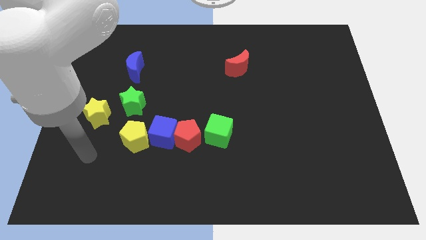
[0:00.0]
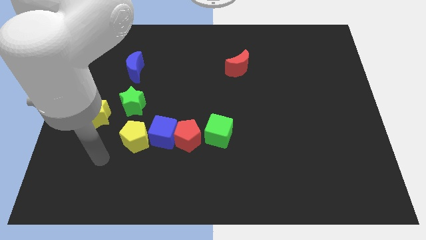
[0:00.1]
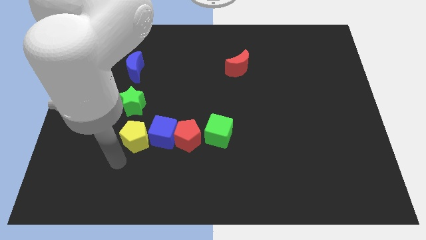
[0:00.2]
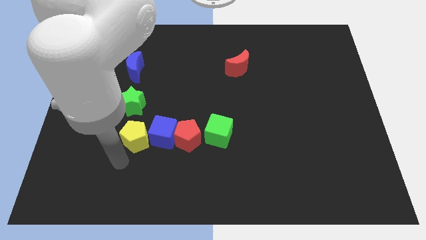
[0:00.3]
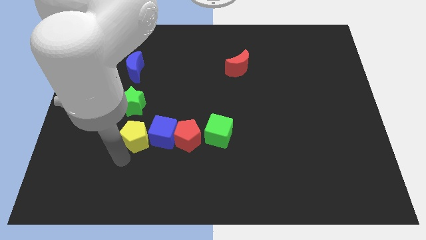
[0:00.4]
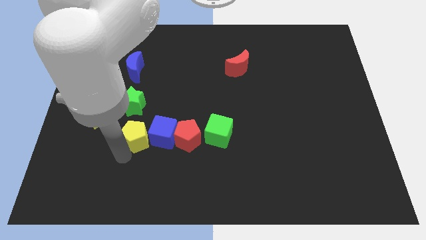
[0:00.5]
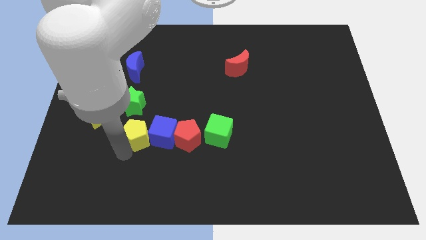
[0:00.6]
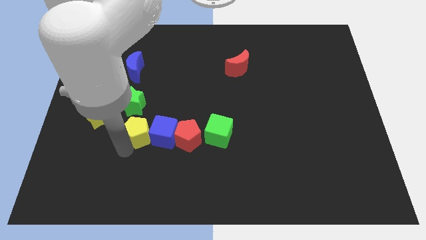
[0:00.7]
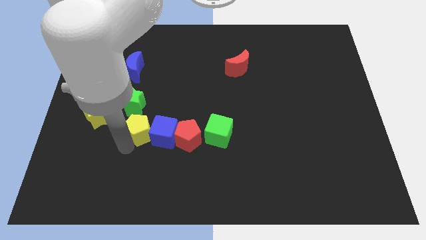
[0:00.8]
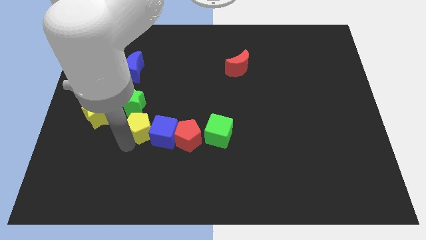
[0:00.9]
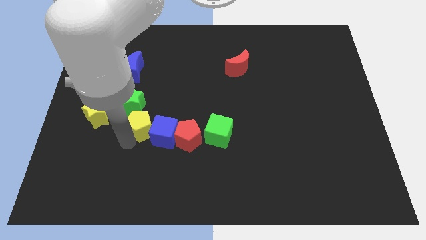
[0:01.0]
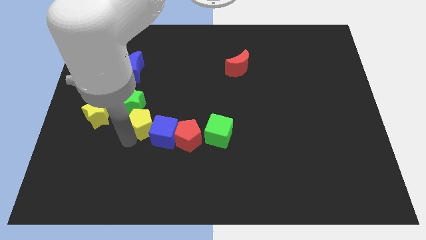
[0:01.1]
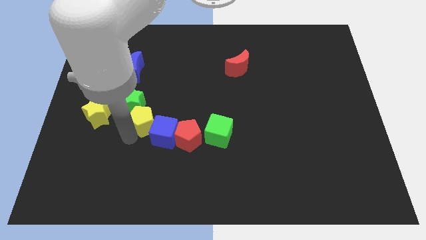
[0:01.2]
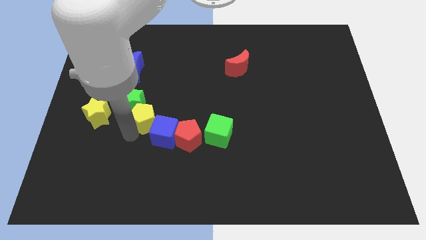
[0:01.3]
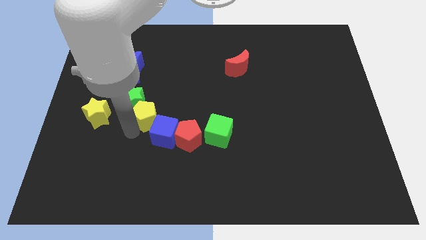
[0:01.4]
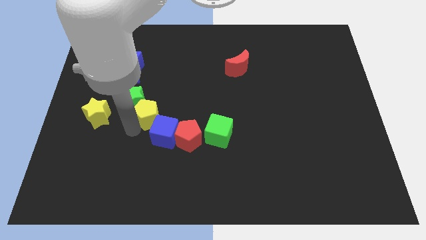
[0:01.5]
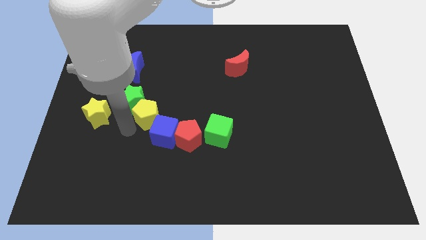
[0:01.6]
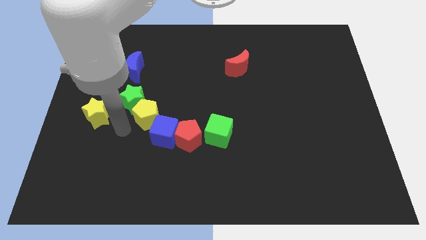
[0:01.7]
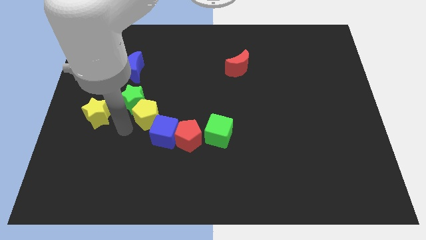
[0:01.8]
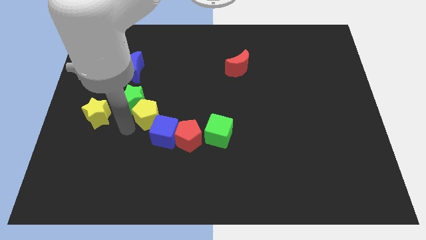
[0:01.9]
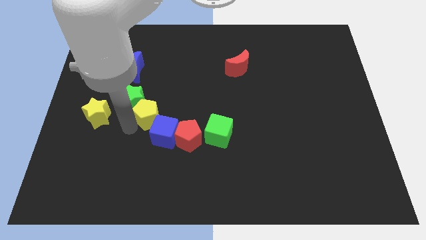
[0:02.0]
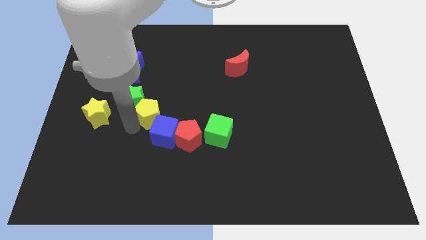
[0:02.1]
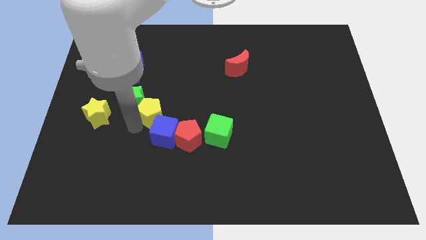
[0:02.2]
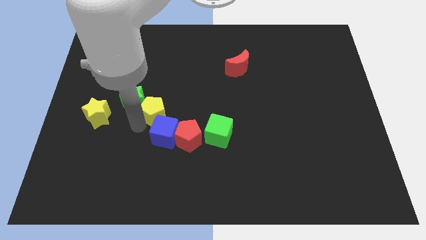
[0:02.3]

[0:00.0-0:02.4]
slide the yellow pentagon up and then right a little

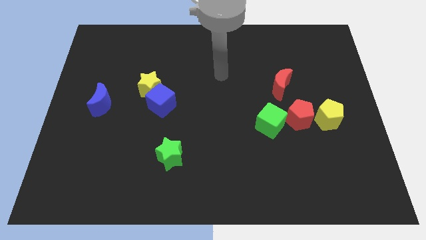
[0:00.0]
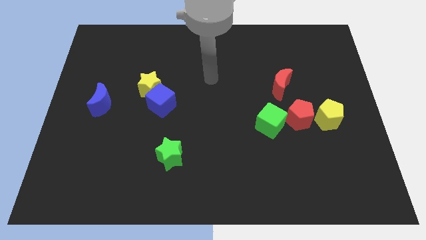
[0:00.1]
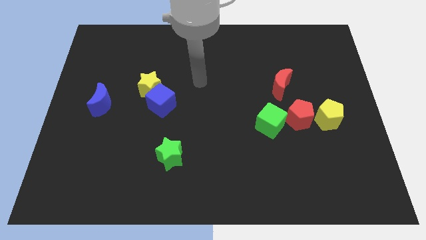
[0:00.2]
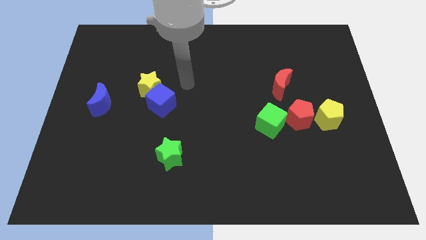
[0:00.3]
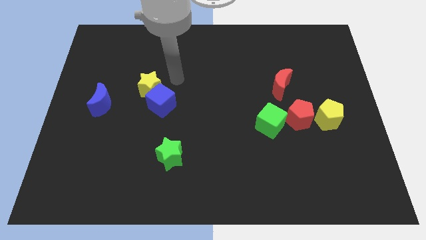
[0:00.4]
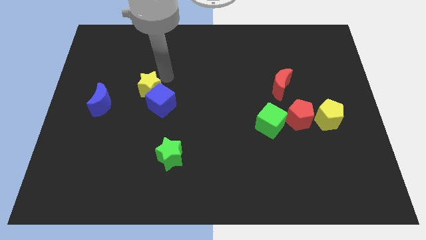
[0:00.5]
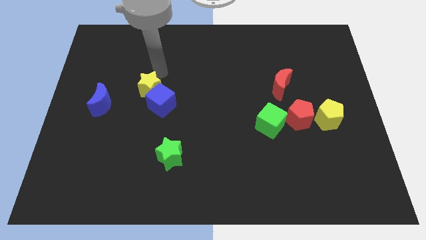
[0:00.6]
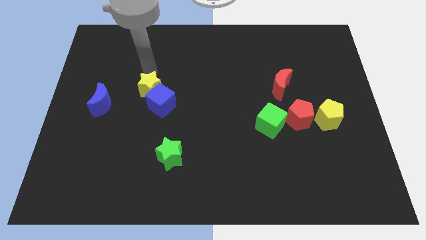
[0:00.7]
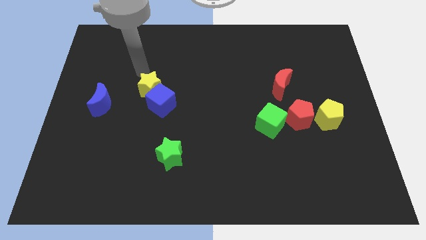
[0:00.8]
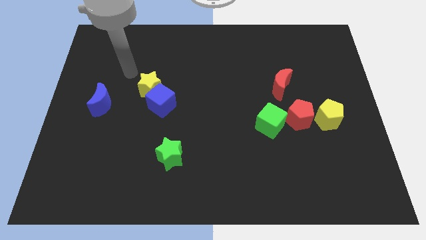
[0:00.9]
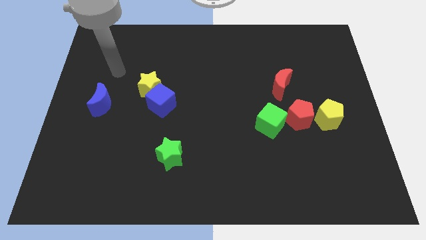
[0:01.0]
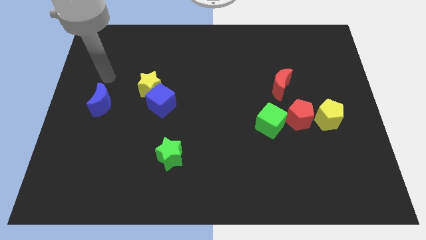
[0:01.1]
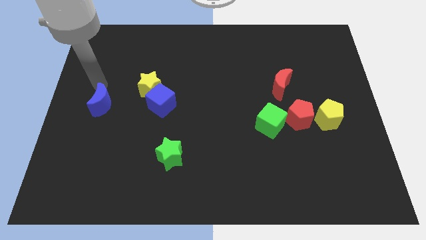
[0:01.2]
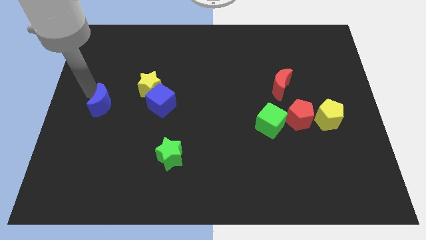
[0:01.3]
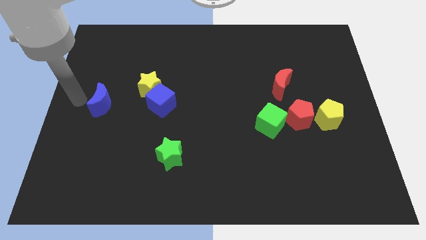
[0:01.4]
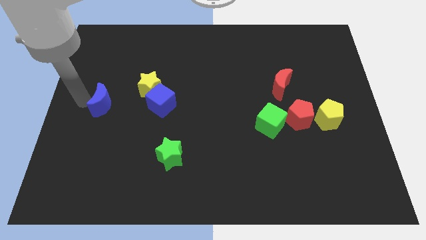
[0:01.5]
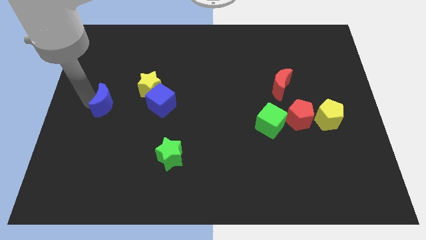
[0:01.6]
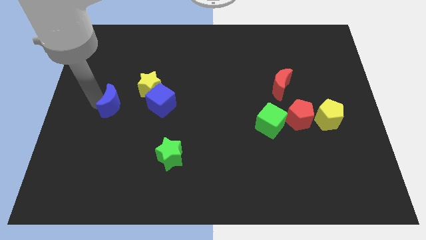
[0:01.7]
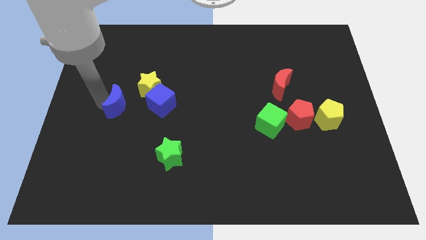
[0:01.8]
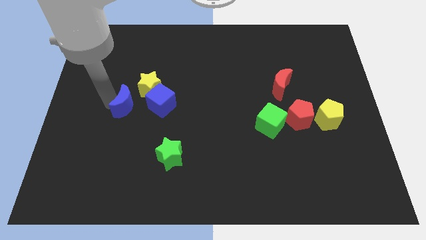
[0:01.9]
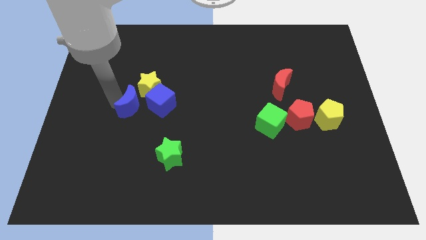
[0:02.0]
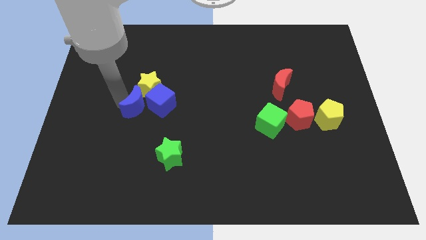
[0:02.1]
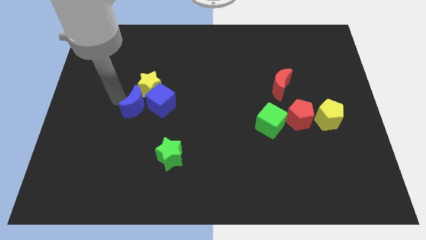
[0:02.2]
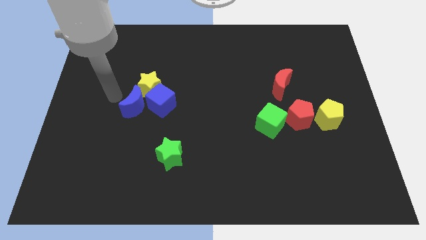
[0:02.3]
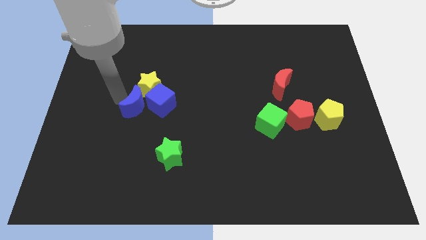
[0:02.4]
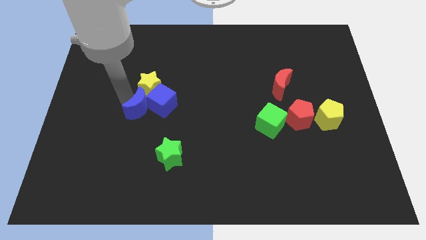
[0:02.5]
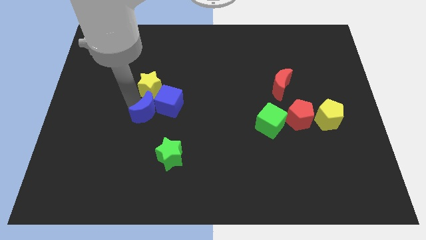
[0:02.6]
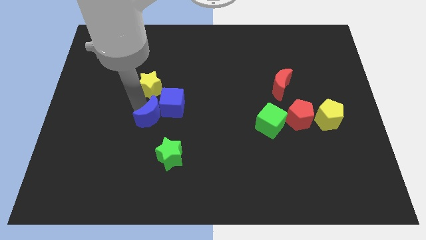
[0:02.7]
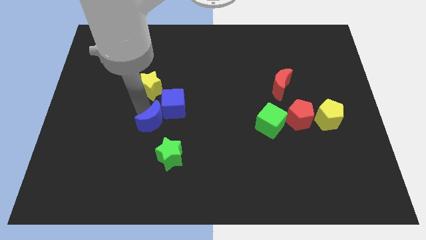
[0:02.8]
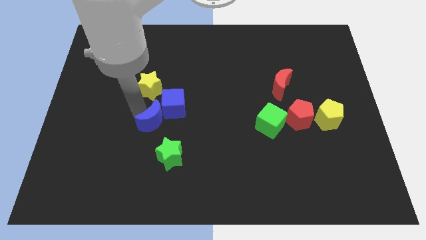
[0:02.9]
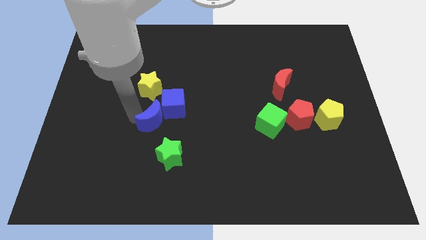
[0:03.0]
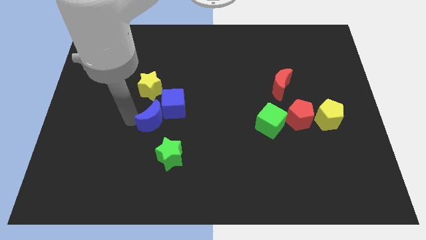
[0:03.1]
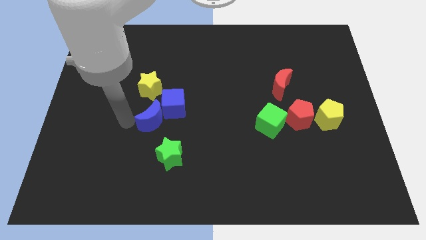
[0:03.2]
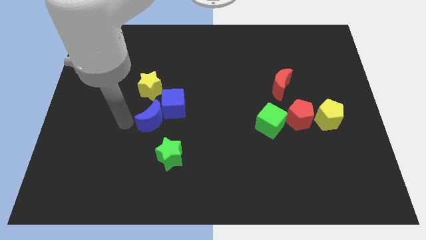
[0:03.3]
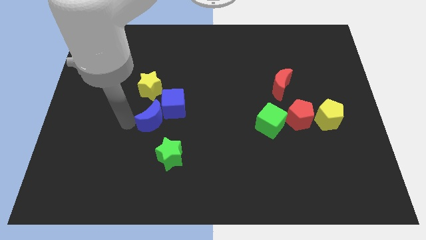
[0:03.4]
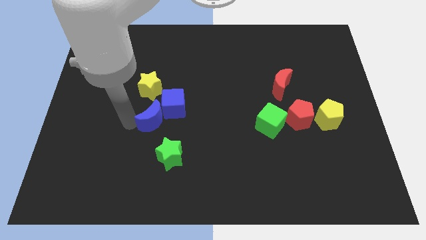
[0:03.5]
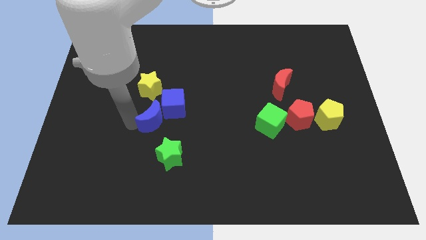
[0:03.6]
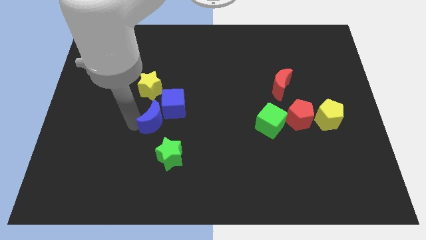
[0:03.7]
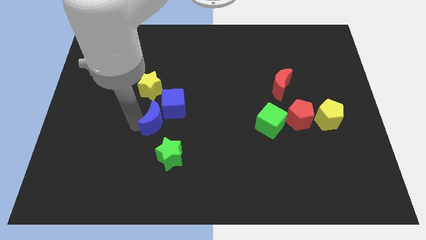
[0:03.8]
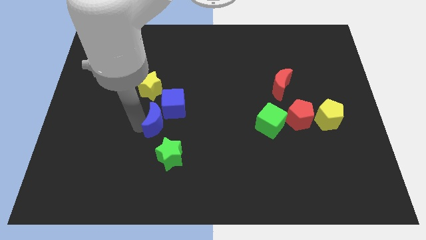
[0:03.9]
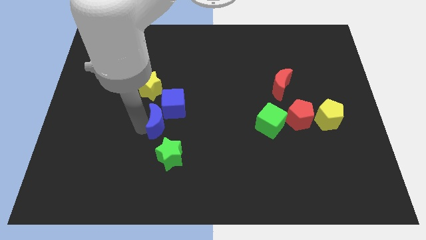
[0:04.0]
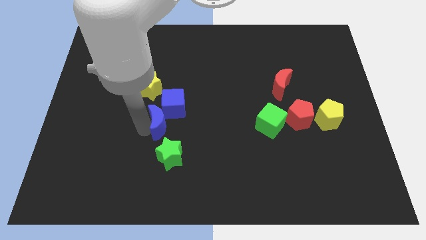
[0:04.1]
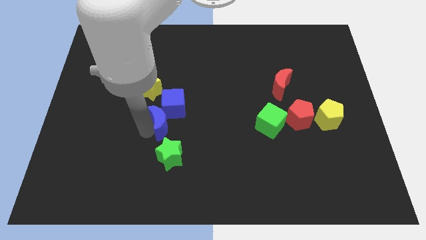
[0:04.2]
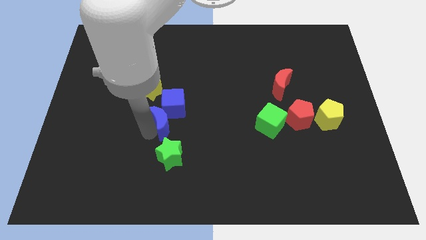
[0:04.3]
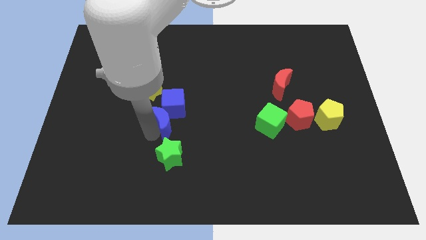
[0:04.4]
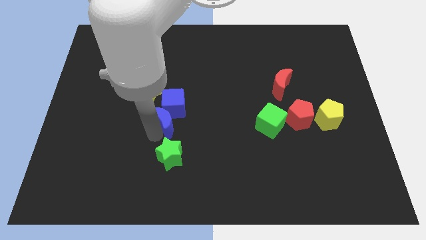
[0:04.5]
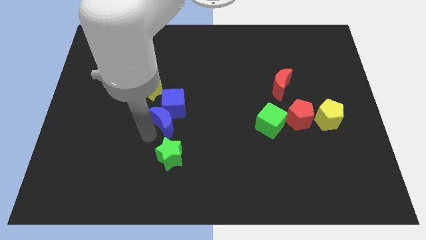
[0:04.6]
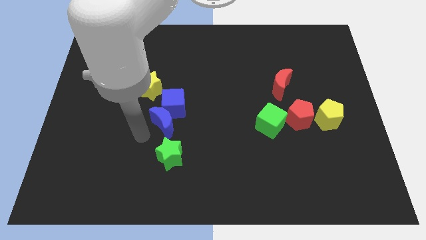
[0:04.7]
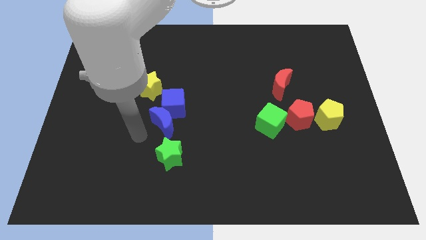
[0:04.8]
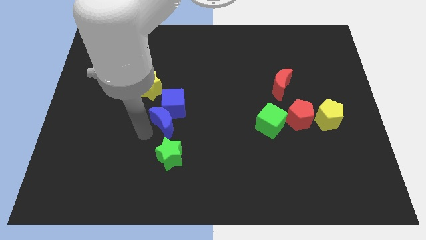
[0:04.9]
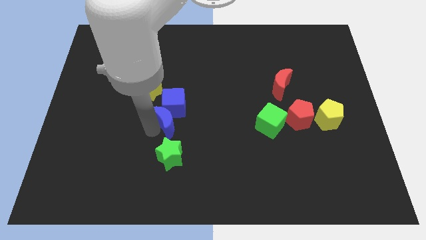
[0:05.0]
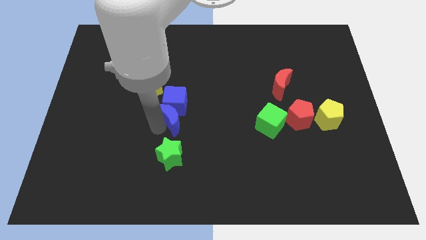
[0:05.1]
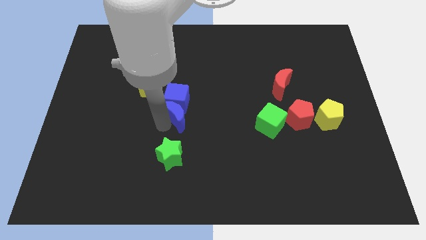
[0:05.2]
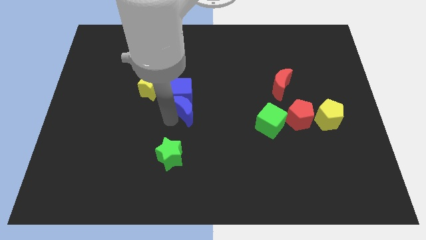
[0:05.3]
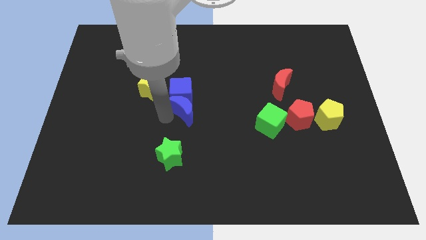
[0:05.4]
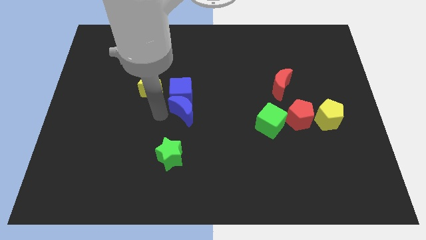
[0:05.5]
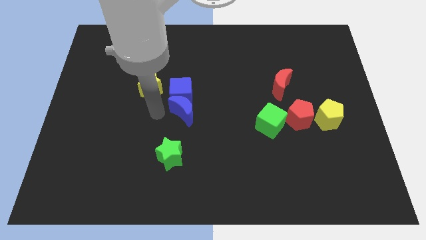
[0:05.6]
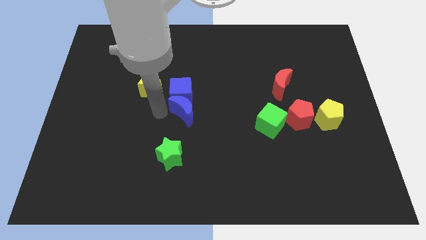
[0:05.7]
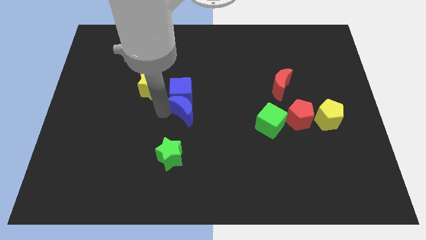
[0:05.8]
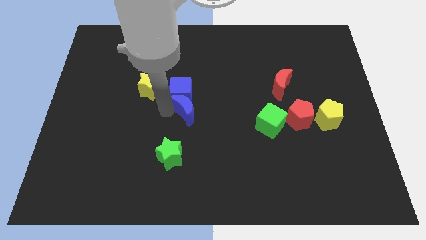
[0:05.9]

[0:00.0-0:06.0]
move the blue moon to the right
